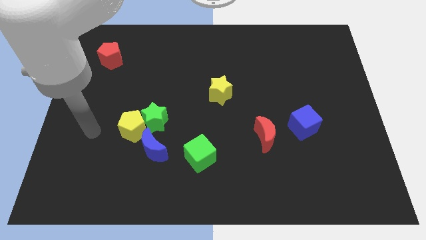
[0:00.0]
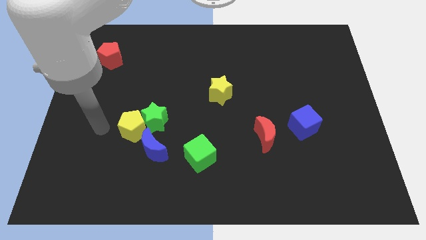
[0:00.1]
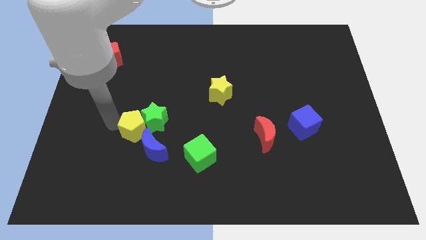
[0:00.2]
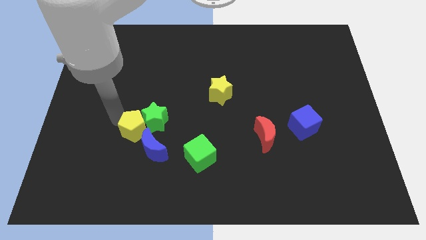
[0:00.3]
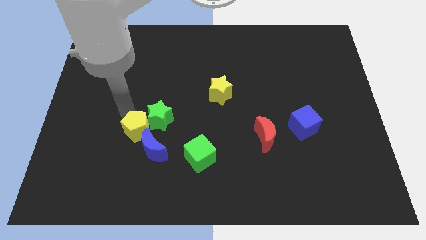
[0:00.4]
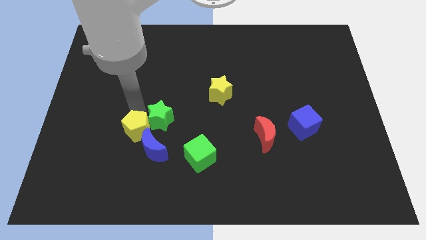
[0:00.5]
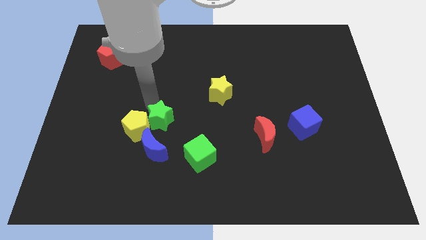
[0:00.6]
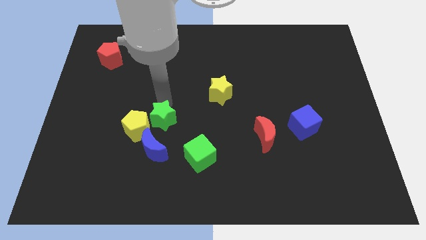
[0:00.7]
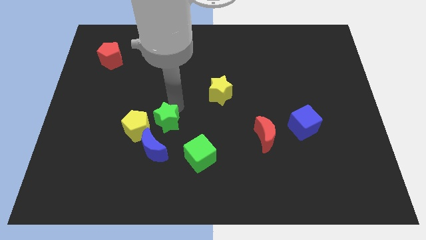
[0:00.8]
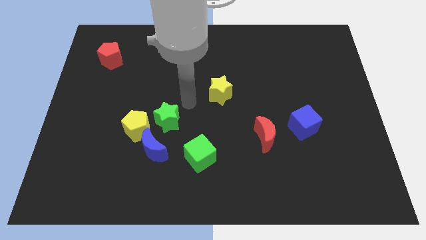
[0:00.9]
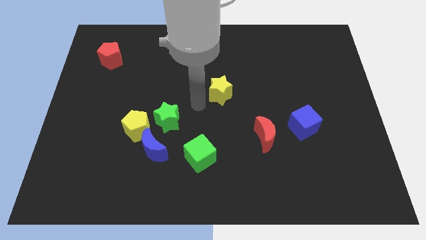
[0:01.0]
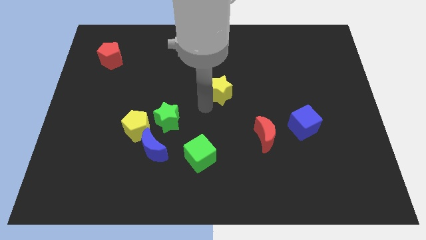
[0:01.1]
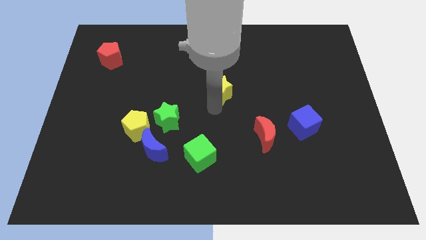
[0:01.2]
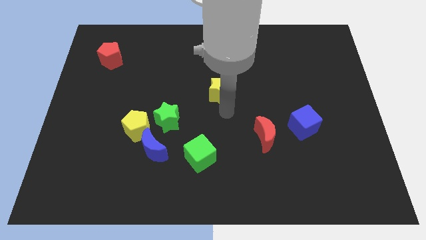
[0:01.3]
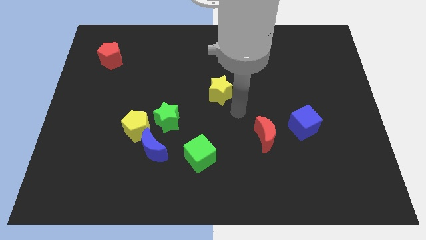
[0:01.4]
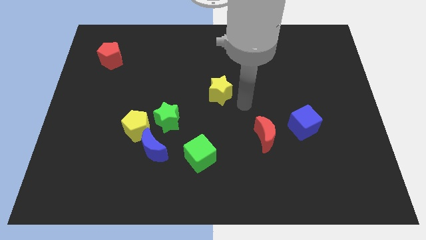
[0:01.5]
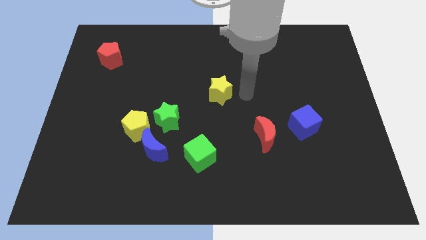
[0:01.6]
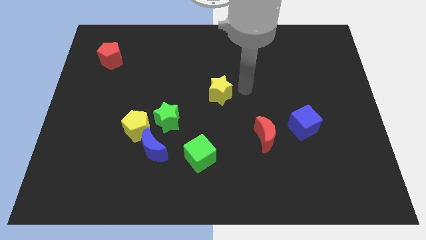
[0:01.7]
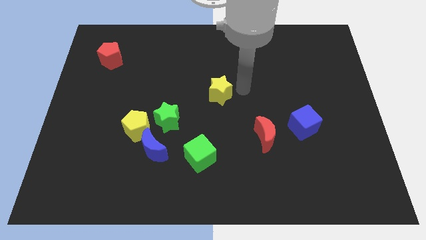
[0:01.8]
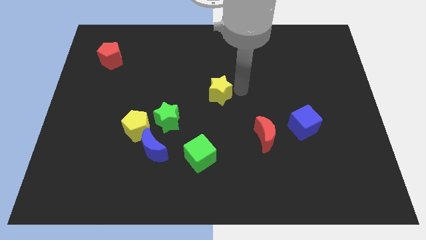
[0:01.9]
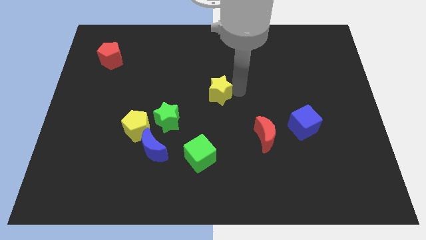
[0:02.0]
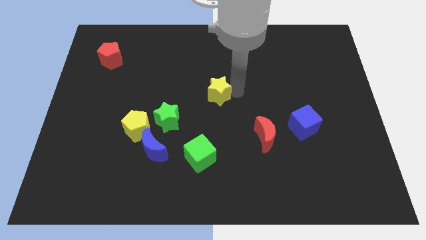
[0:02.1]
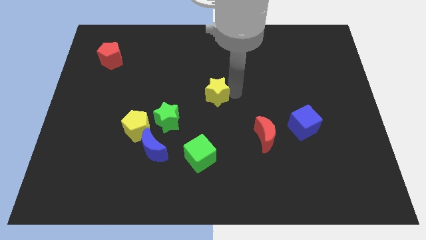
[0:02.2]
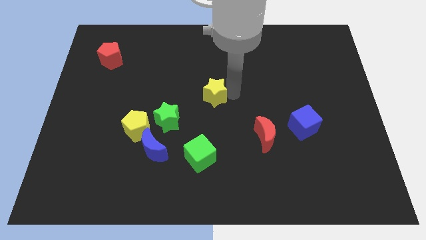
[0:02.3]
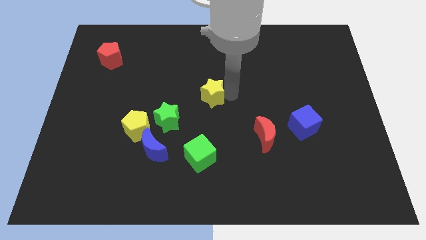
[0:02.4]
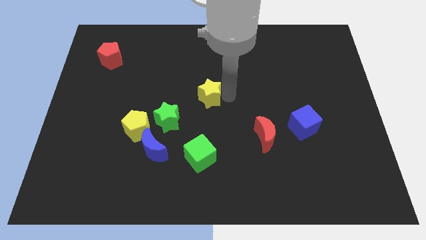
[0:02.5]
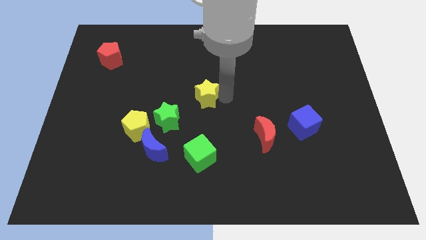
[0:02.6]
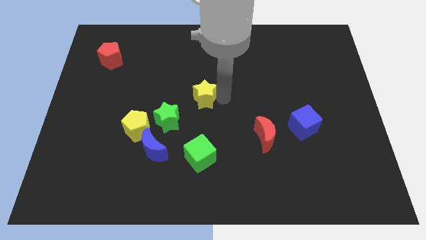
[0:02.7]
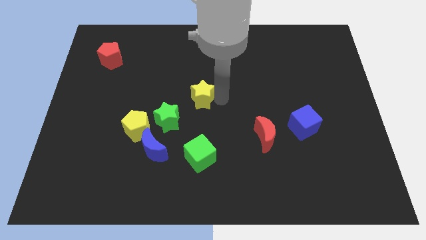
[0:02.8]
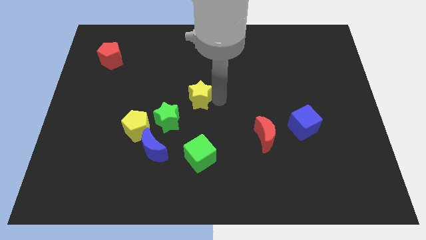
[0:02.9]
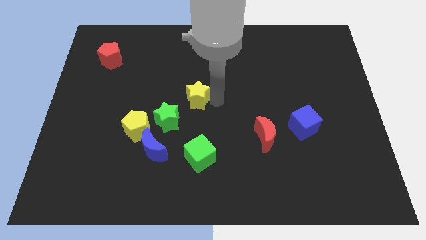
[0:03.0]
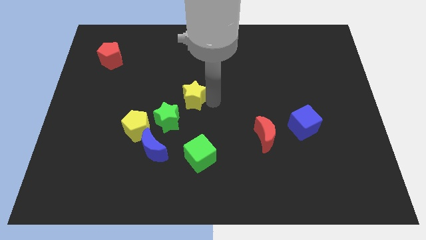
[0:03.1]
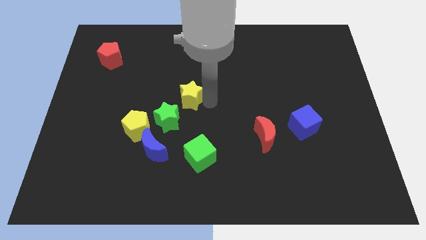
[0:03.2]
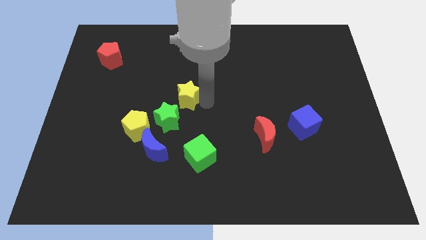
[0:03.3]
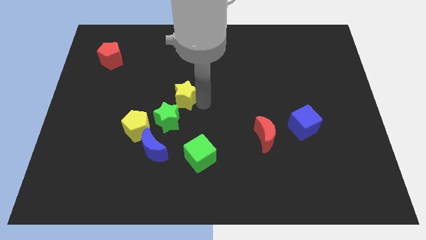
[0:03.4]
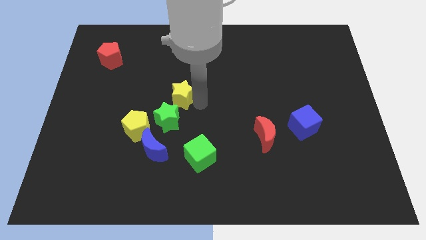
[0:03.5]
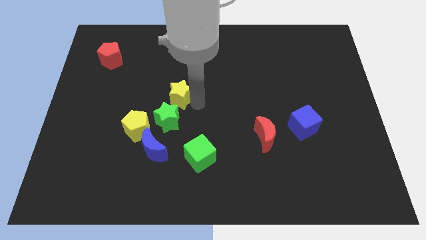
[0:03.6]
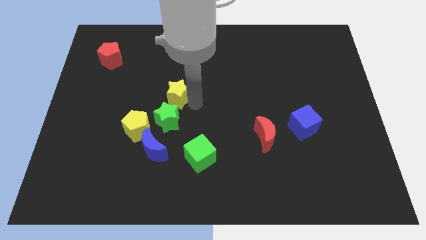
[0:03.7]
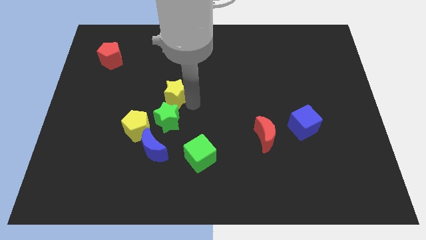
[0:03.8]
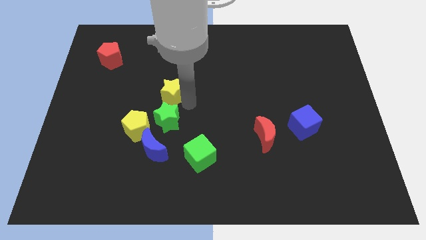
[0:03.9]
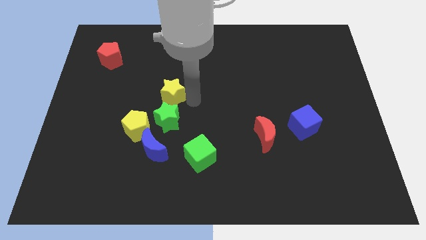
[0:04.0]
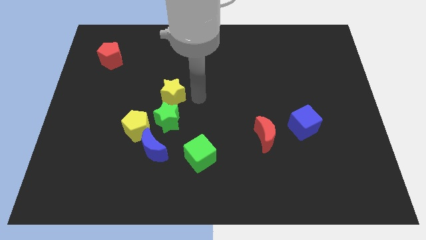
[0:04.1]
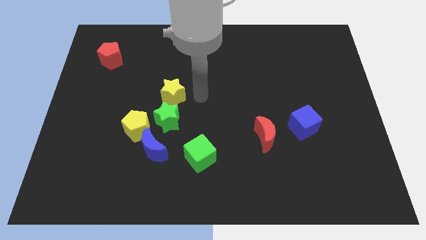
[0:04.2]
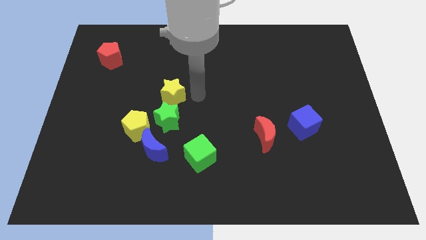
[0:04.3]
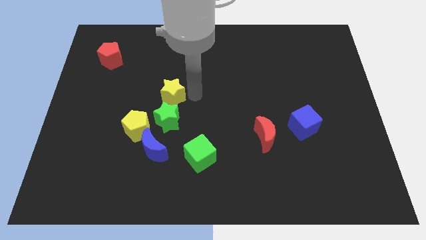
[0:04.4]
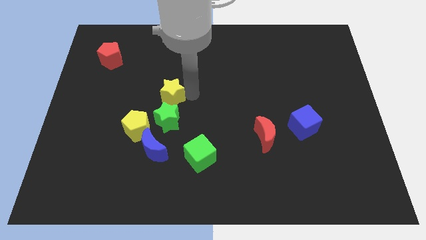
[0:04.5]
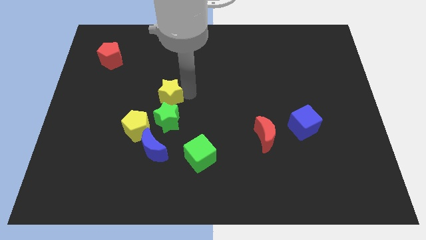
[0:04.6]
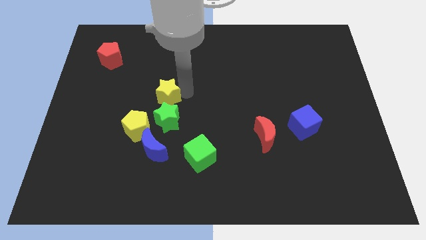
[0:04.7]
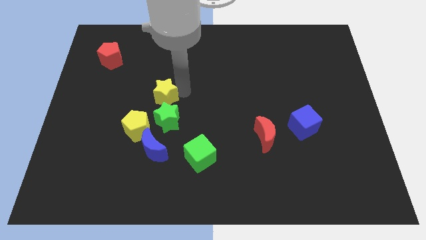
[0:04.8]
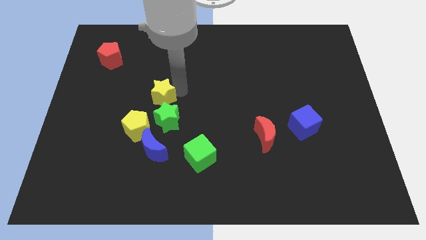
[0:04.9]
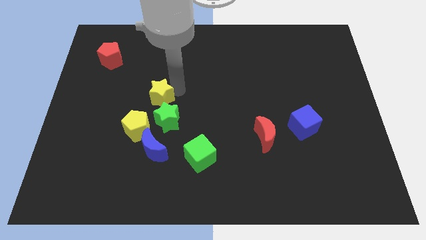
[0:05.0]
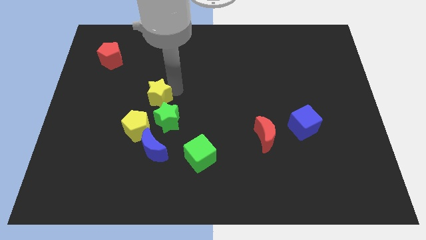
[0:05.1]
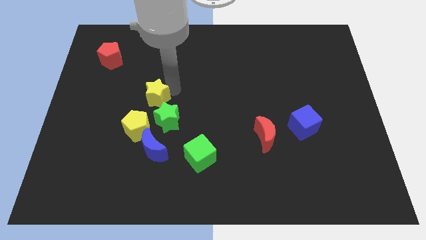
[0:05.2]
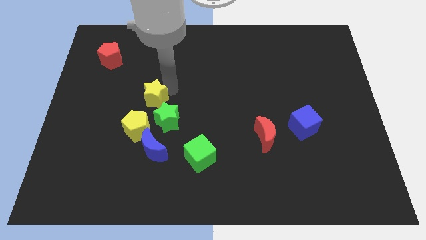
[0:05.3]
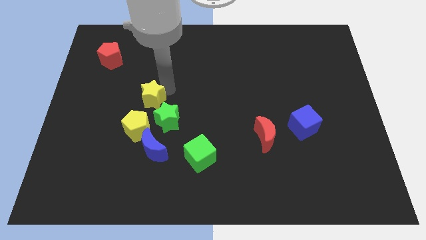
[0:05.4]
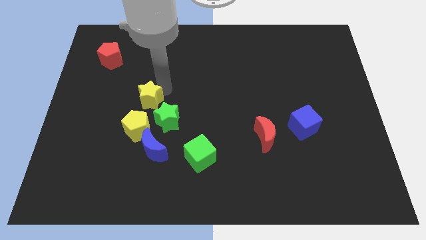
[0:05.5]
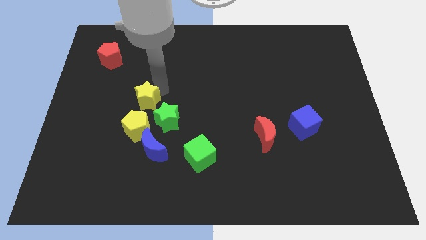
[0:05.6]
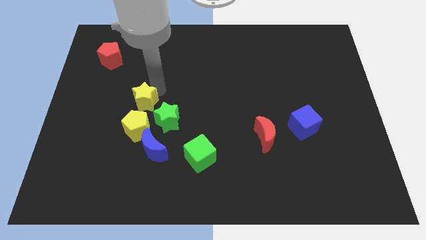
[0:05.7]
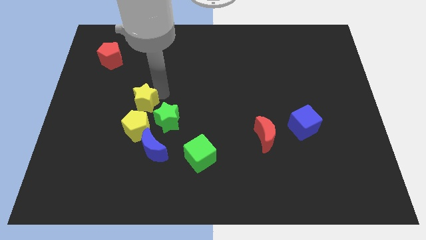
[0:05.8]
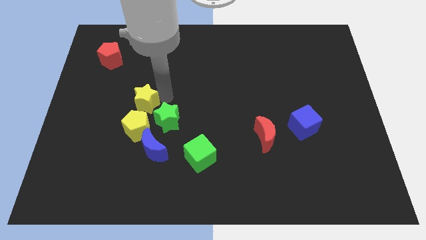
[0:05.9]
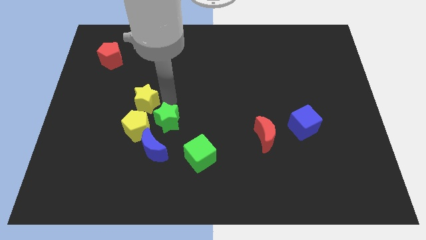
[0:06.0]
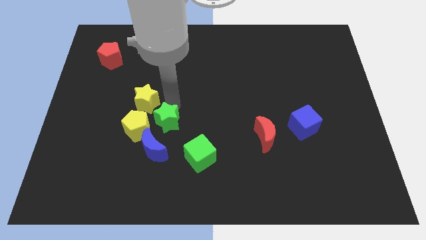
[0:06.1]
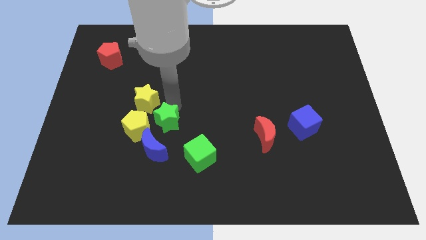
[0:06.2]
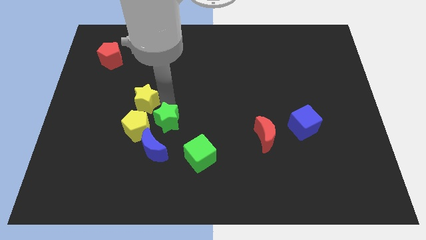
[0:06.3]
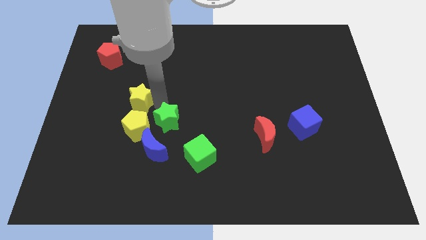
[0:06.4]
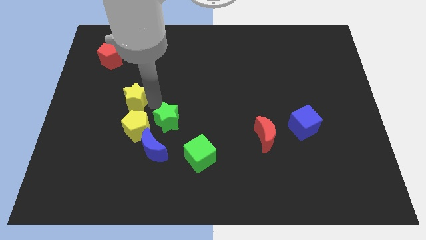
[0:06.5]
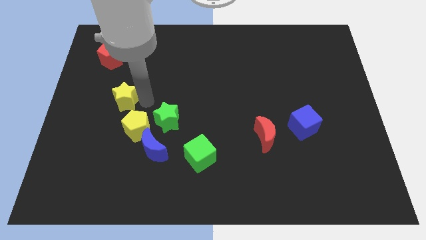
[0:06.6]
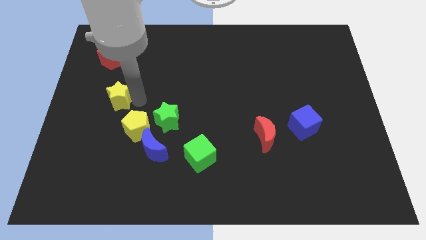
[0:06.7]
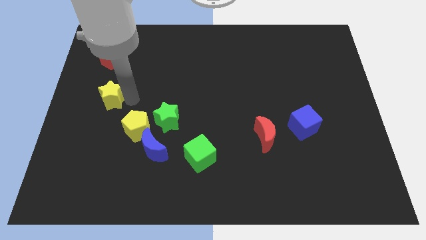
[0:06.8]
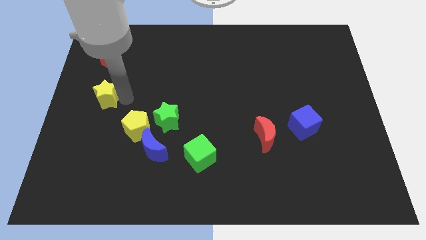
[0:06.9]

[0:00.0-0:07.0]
slide the yellow star to the center left

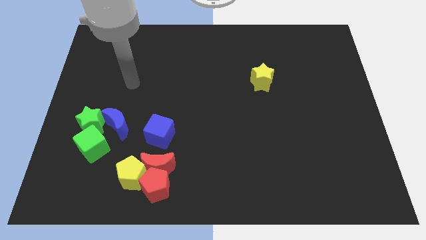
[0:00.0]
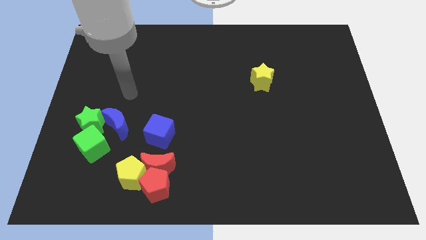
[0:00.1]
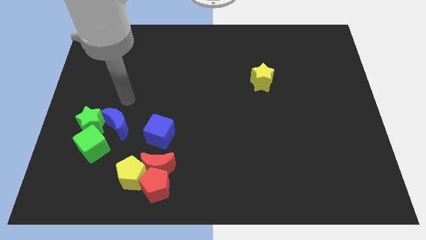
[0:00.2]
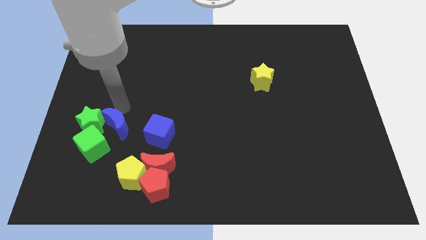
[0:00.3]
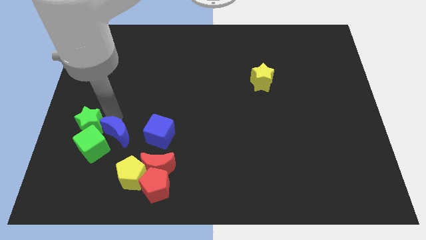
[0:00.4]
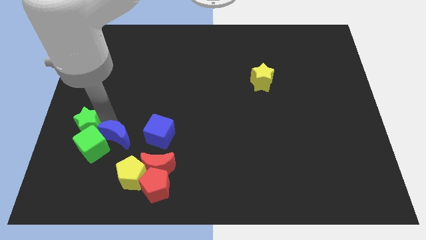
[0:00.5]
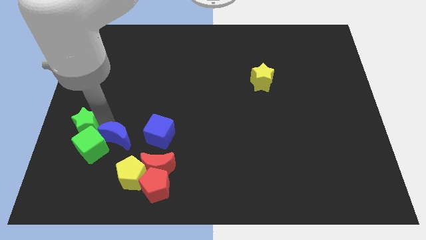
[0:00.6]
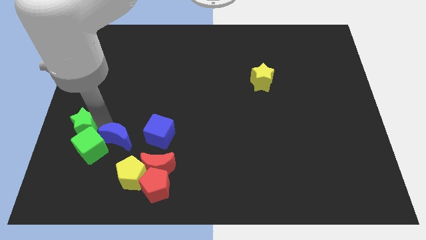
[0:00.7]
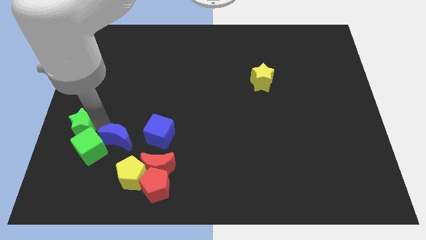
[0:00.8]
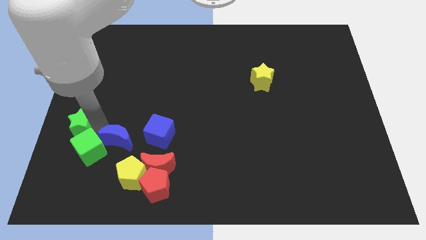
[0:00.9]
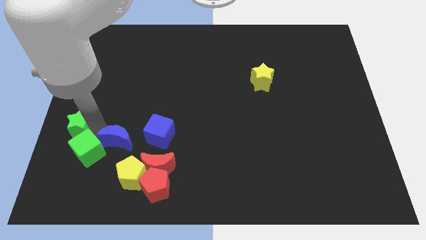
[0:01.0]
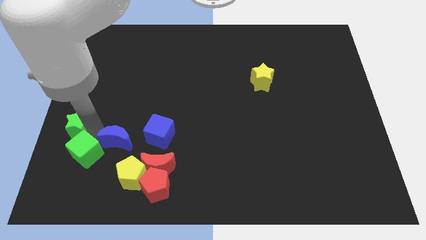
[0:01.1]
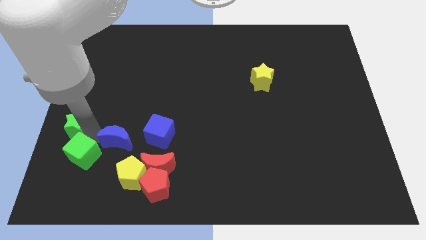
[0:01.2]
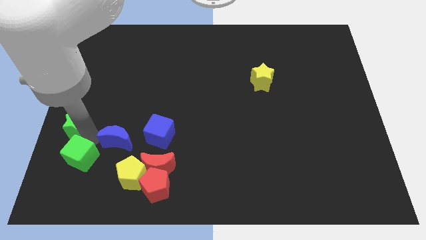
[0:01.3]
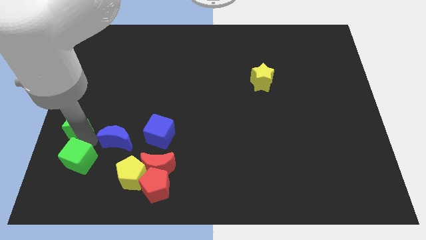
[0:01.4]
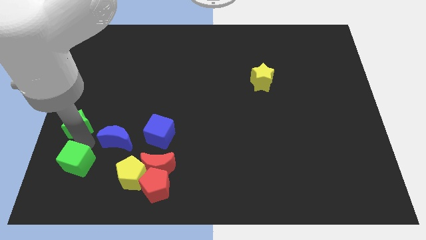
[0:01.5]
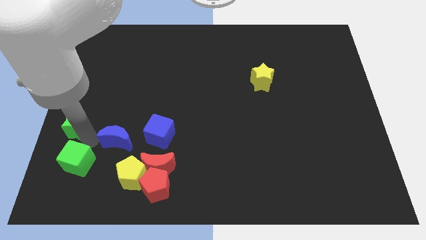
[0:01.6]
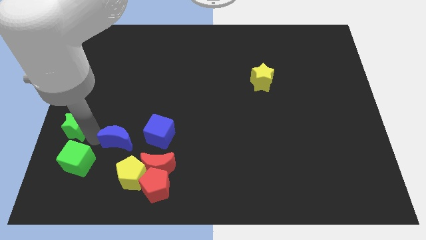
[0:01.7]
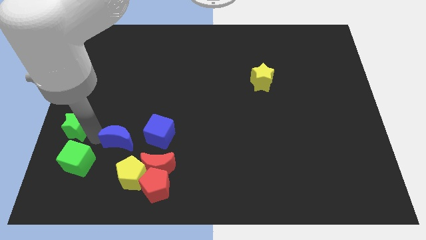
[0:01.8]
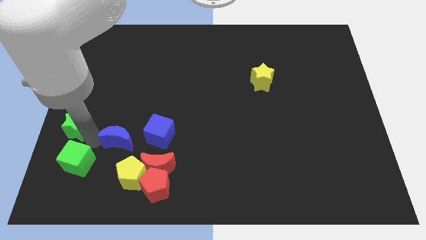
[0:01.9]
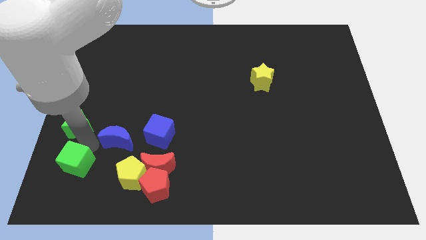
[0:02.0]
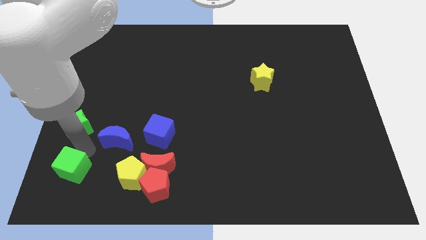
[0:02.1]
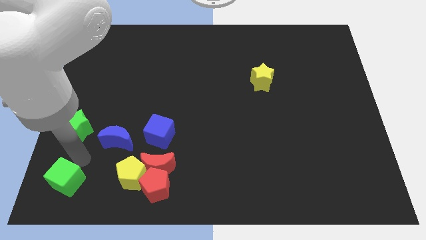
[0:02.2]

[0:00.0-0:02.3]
push the green cube to the bottom left corner
